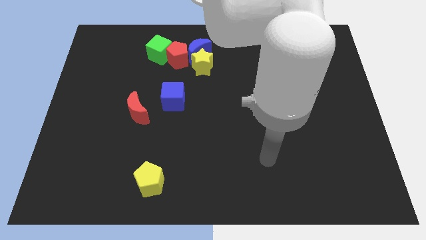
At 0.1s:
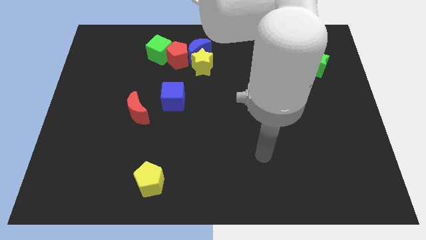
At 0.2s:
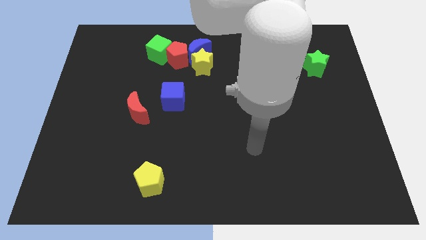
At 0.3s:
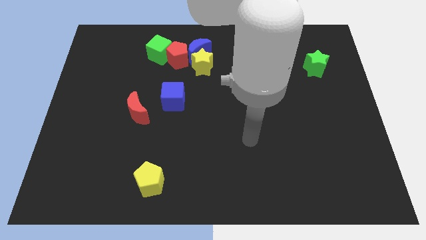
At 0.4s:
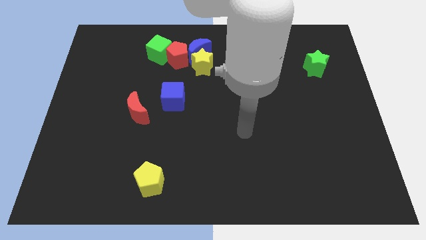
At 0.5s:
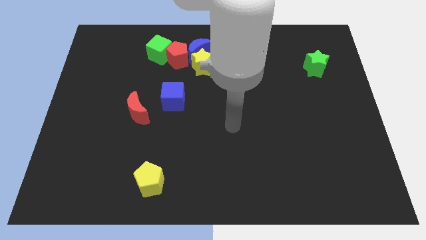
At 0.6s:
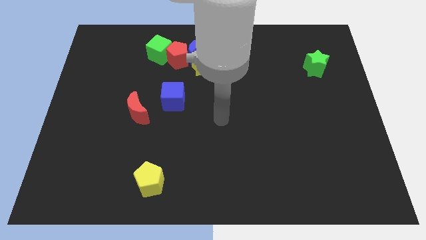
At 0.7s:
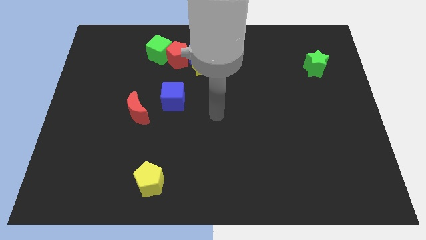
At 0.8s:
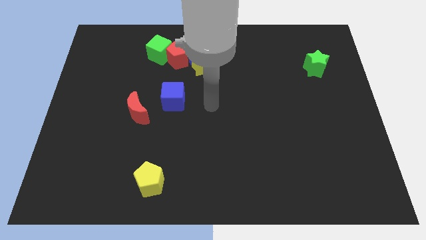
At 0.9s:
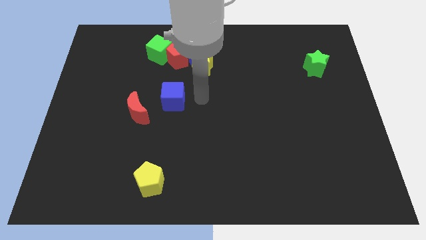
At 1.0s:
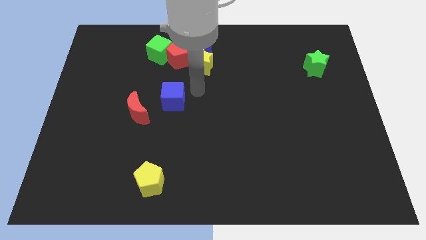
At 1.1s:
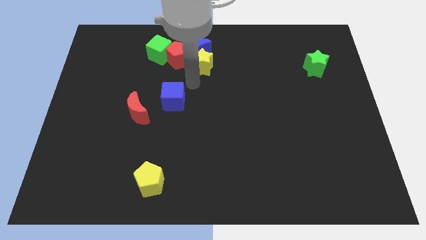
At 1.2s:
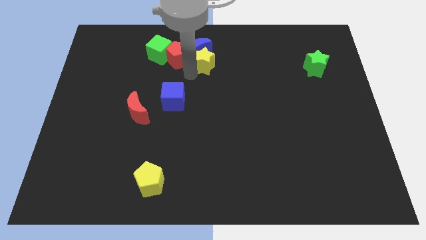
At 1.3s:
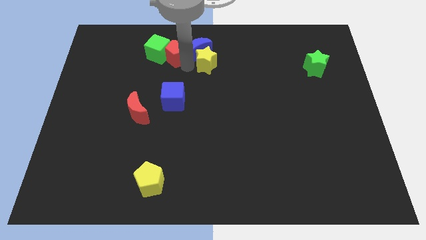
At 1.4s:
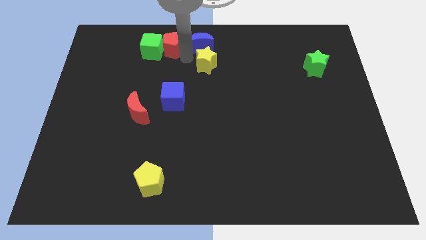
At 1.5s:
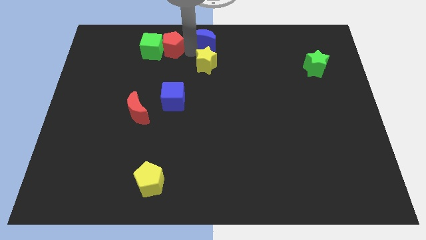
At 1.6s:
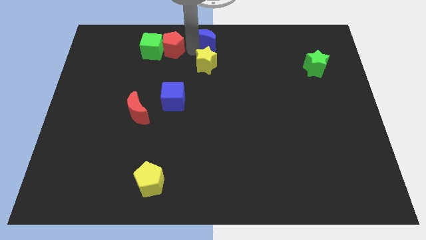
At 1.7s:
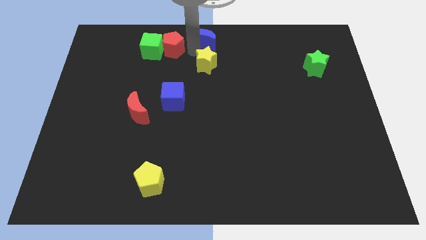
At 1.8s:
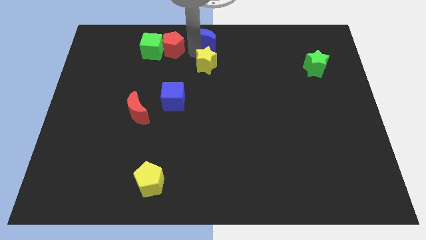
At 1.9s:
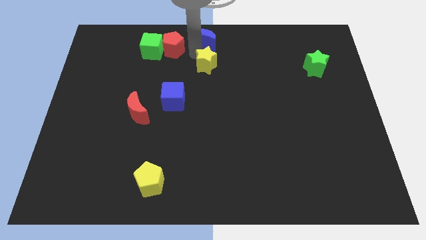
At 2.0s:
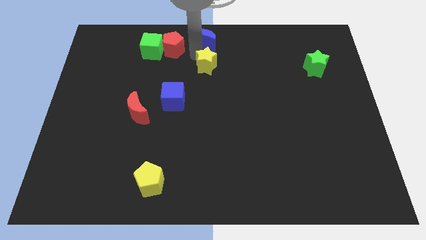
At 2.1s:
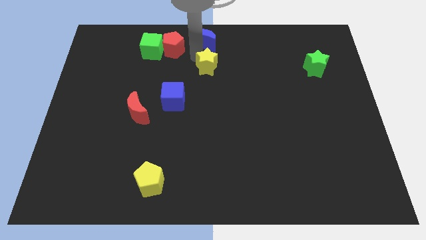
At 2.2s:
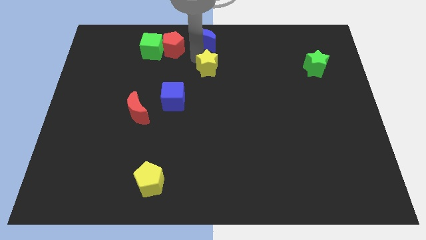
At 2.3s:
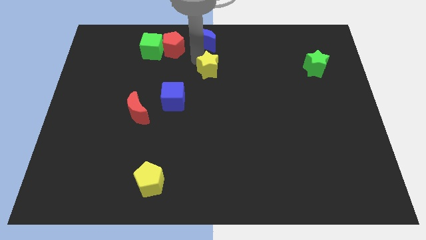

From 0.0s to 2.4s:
move the yellow star away from the blue moon and red pentagon

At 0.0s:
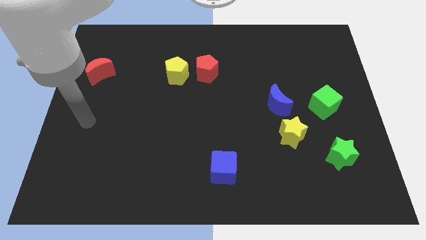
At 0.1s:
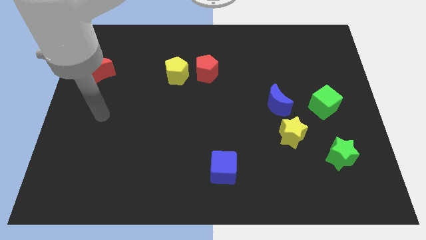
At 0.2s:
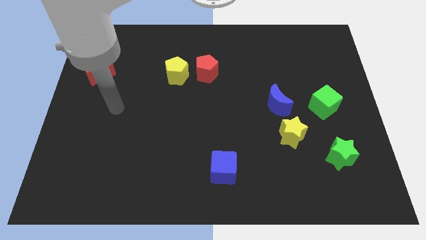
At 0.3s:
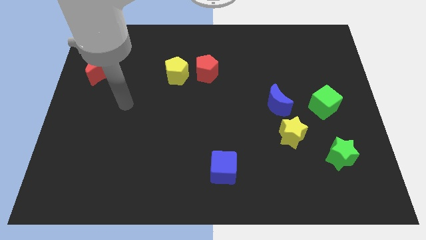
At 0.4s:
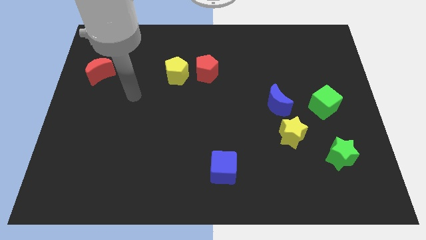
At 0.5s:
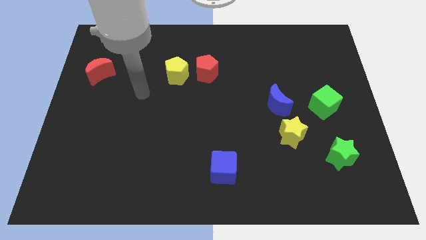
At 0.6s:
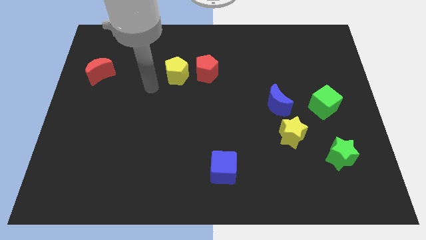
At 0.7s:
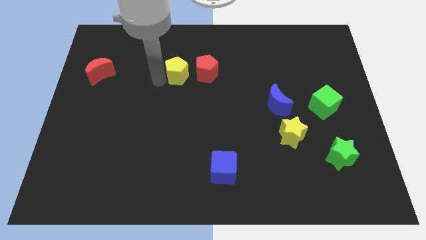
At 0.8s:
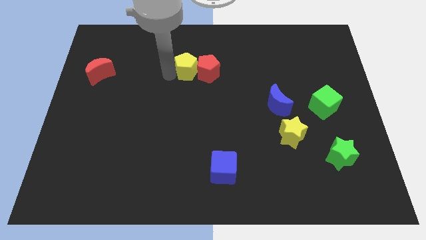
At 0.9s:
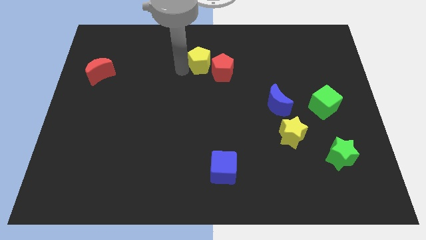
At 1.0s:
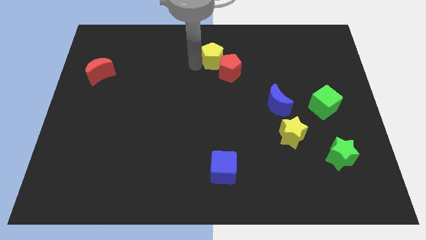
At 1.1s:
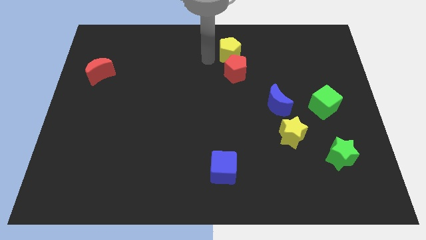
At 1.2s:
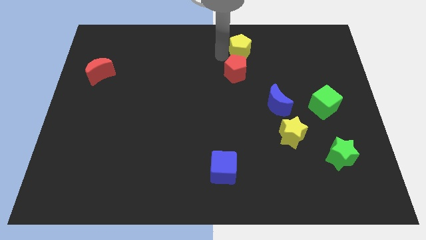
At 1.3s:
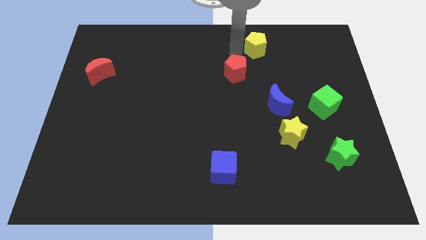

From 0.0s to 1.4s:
separate the red pentagon from the yellow pentagon

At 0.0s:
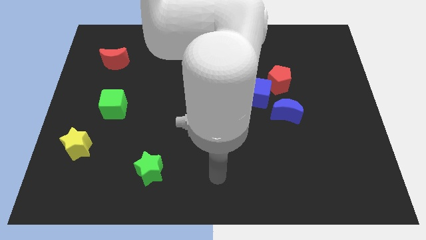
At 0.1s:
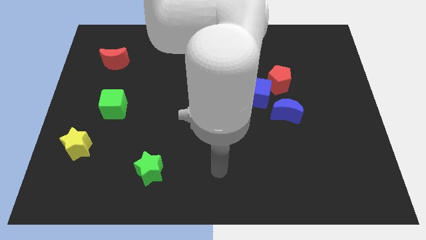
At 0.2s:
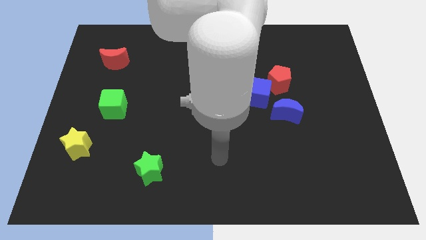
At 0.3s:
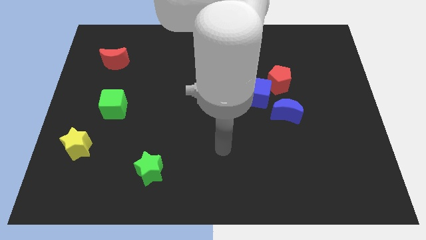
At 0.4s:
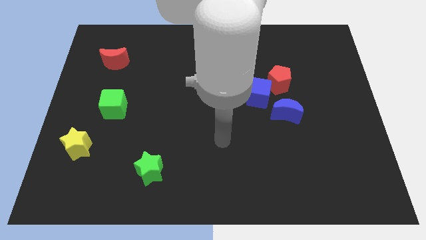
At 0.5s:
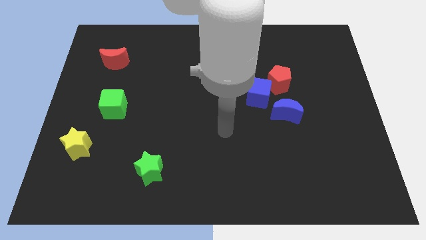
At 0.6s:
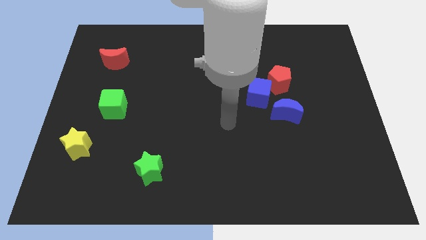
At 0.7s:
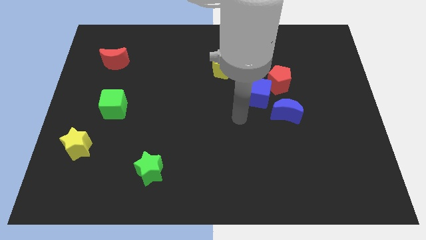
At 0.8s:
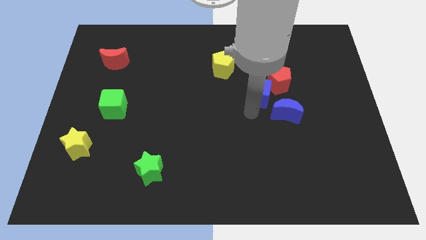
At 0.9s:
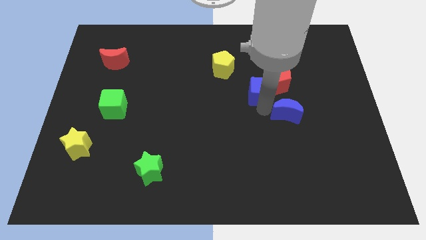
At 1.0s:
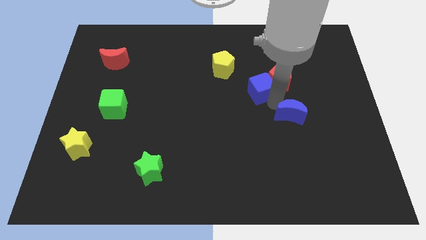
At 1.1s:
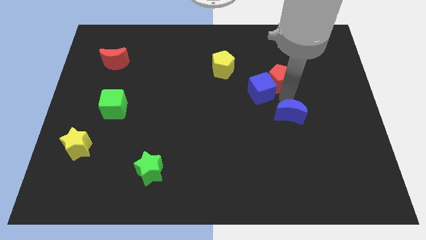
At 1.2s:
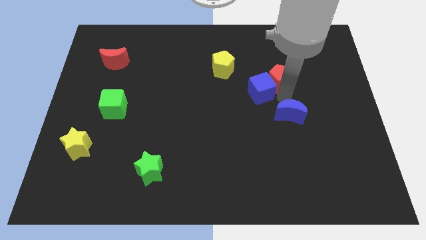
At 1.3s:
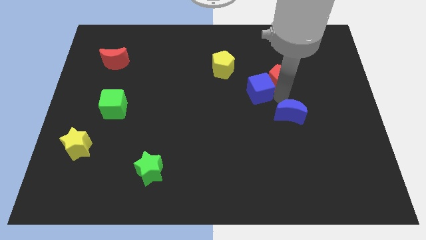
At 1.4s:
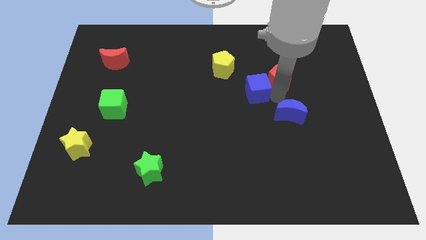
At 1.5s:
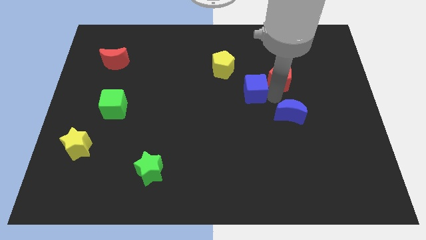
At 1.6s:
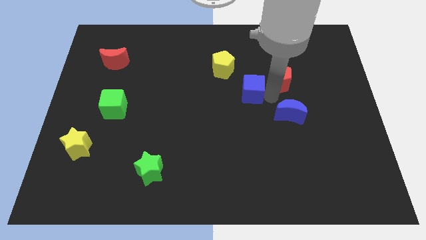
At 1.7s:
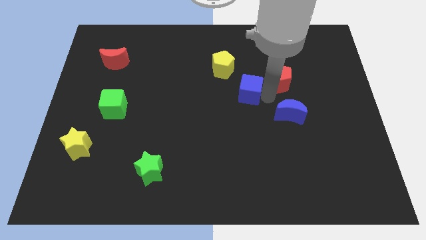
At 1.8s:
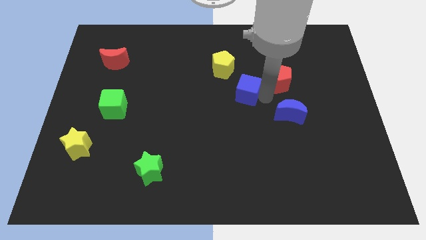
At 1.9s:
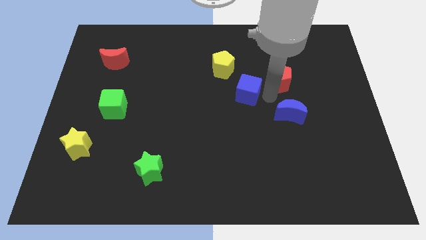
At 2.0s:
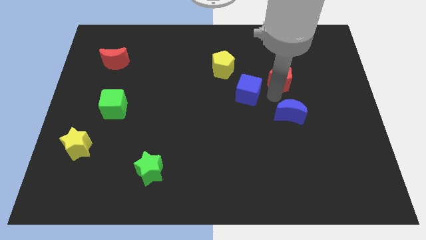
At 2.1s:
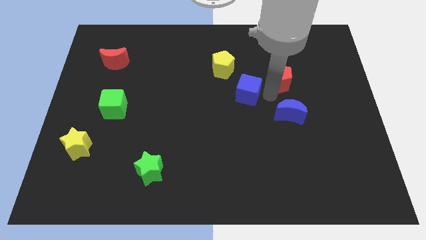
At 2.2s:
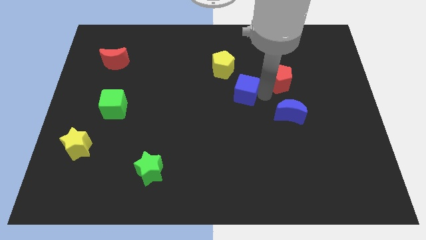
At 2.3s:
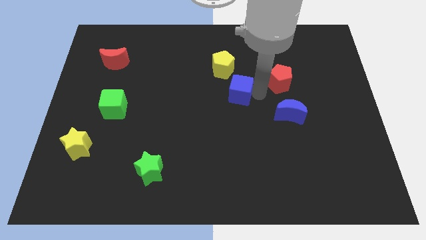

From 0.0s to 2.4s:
separate the blue cube from the red pentagon and blue moon

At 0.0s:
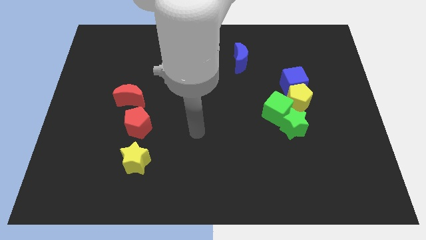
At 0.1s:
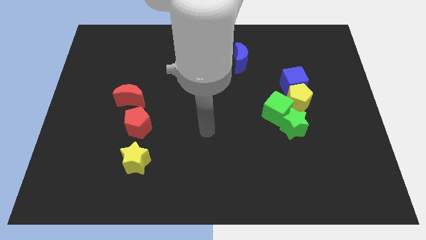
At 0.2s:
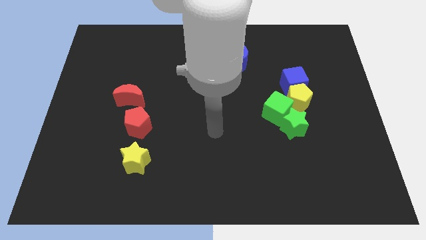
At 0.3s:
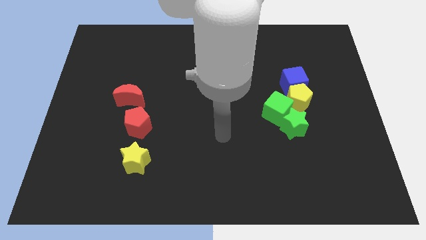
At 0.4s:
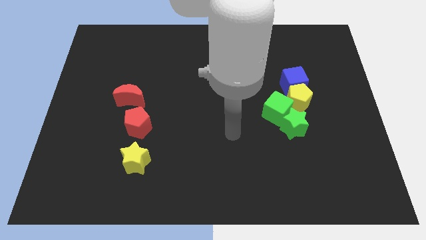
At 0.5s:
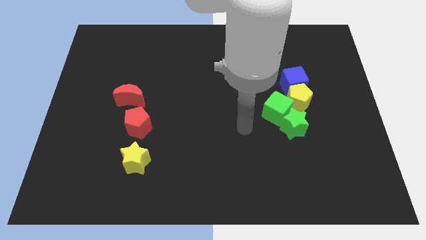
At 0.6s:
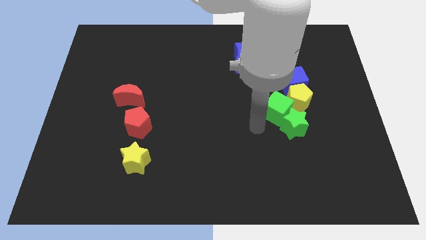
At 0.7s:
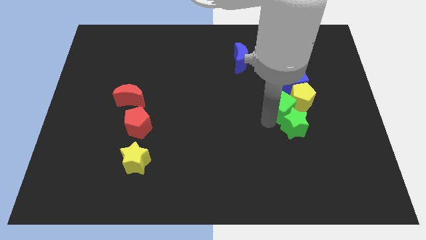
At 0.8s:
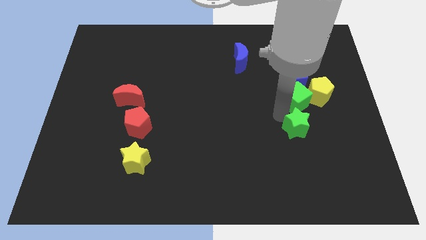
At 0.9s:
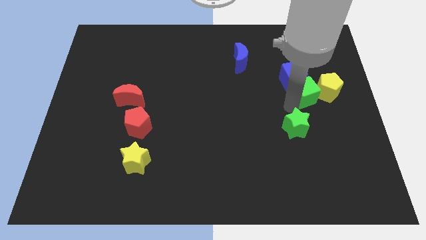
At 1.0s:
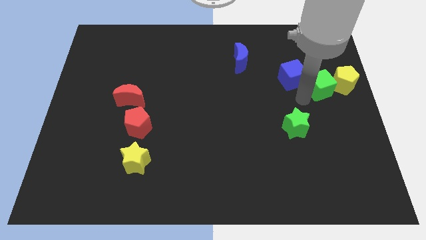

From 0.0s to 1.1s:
separate the yellow pentagon from the group of blocks

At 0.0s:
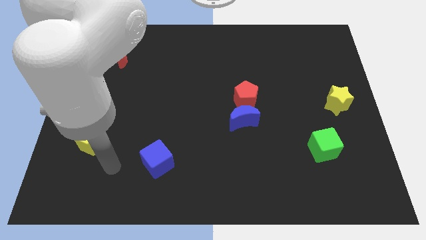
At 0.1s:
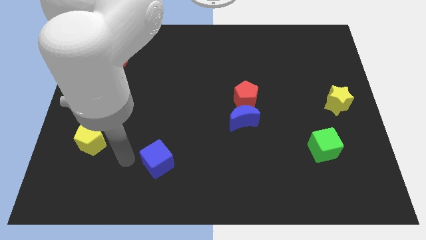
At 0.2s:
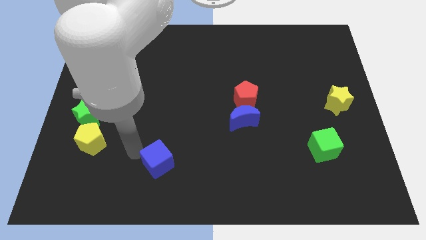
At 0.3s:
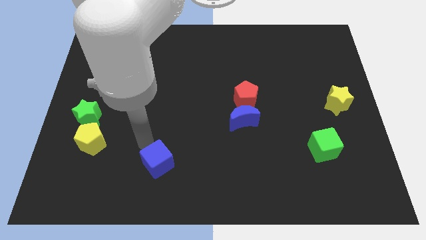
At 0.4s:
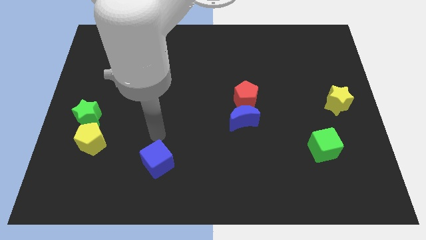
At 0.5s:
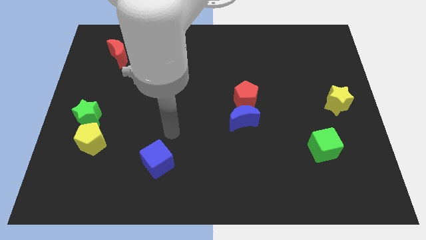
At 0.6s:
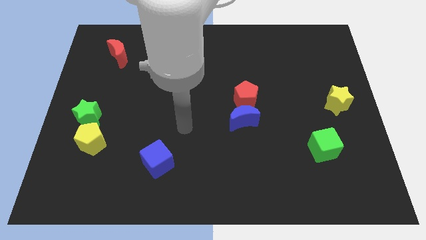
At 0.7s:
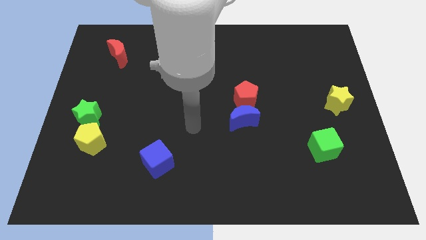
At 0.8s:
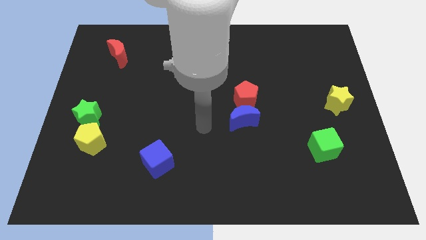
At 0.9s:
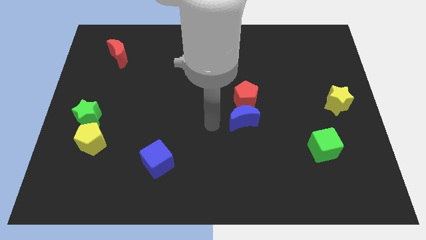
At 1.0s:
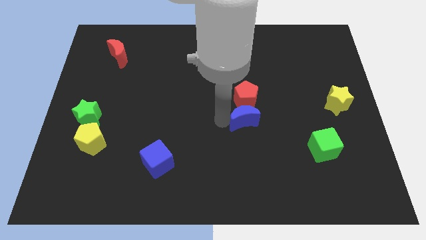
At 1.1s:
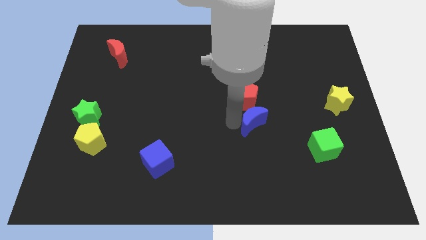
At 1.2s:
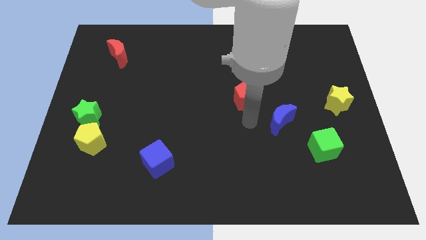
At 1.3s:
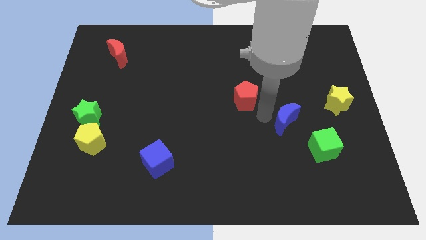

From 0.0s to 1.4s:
separate the red pentagon from the blue moon

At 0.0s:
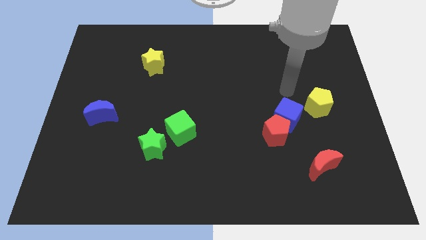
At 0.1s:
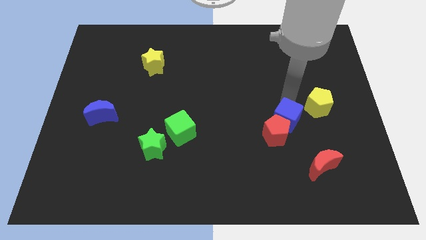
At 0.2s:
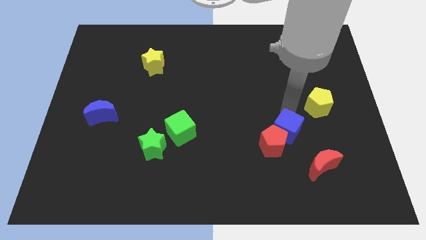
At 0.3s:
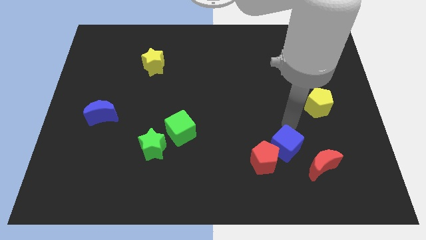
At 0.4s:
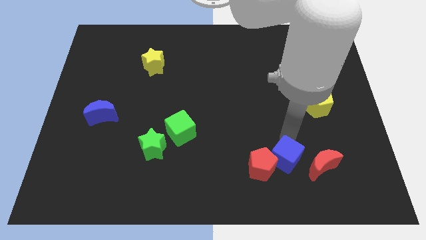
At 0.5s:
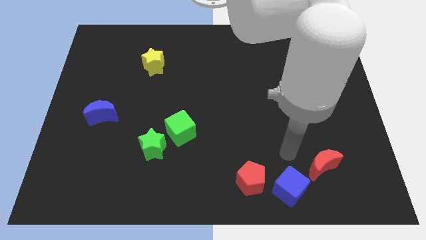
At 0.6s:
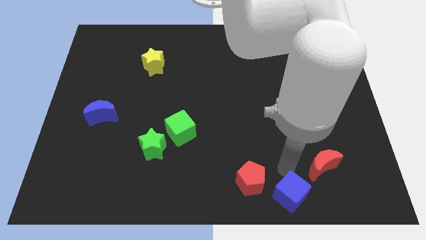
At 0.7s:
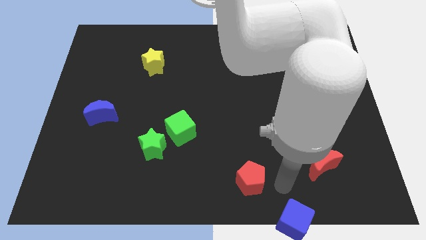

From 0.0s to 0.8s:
pull the red pentagon apart from the blue cube

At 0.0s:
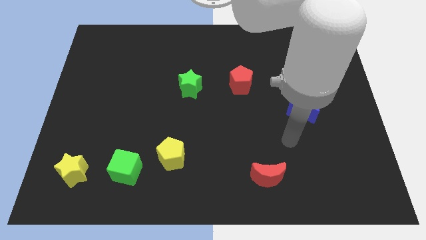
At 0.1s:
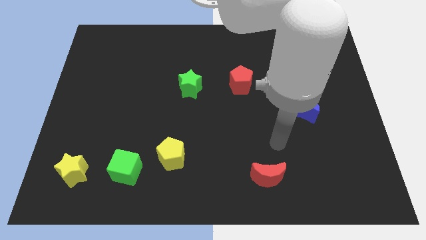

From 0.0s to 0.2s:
move the green cube away from the yellow pentagon
